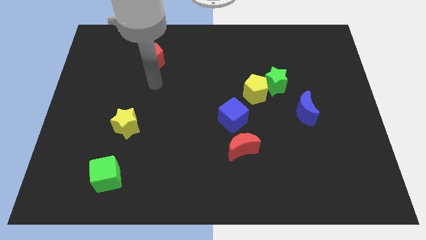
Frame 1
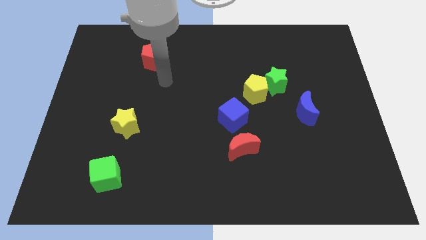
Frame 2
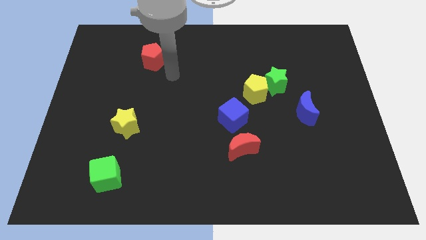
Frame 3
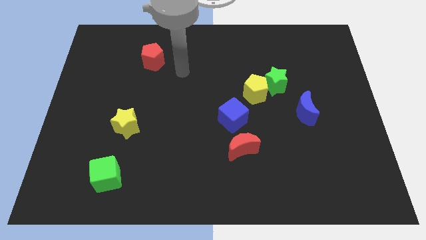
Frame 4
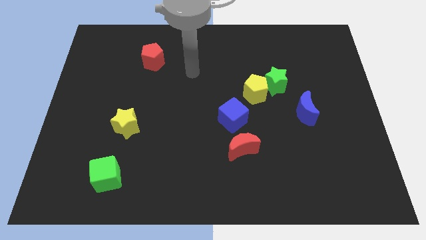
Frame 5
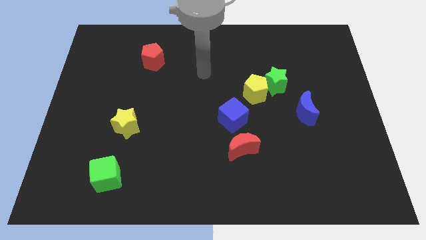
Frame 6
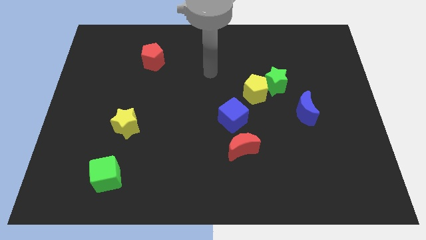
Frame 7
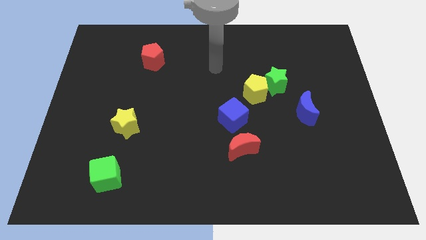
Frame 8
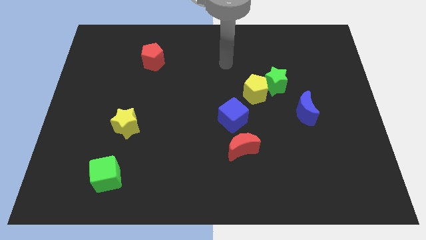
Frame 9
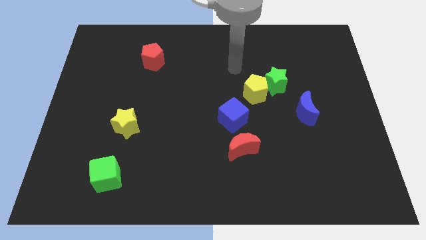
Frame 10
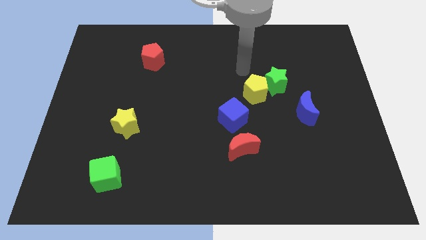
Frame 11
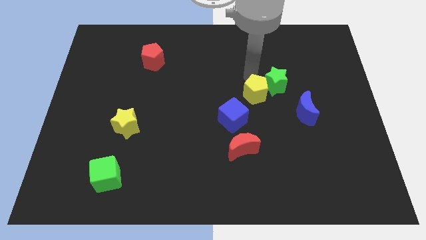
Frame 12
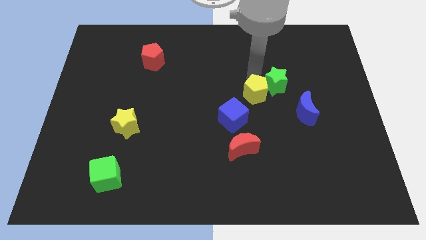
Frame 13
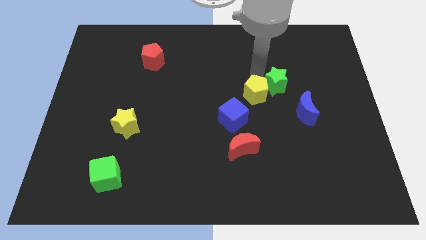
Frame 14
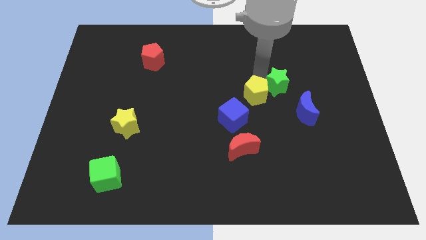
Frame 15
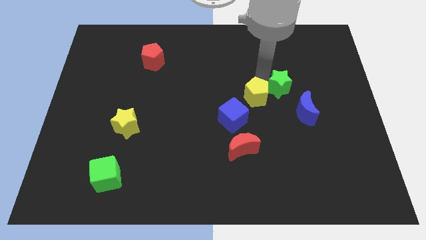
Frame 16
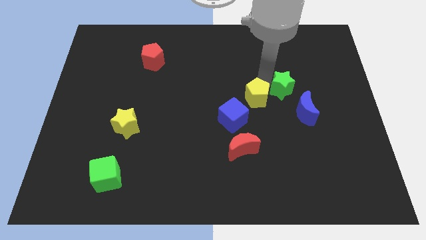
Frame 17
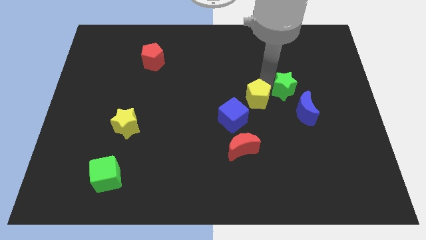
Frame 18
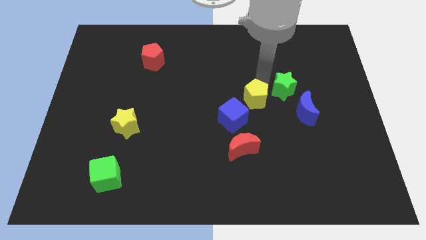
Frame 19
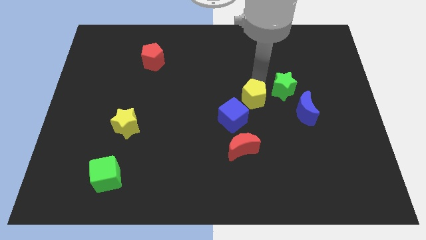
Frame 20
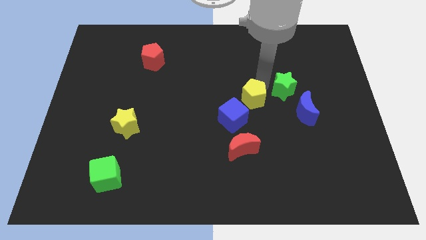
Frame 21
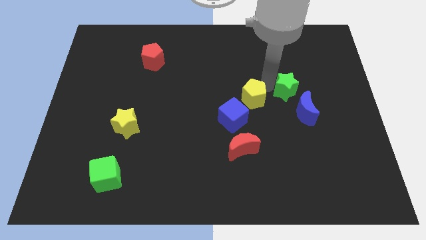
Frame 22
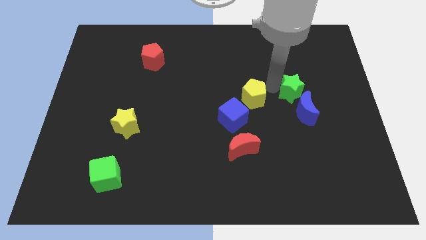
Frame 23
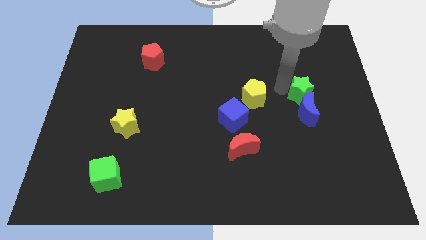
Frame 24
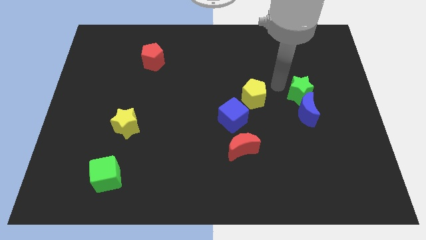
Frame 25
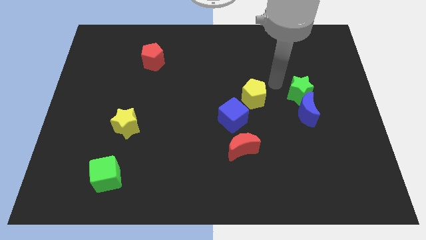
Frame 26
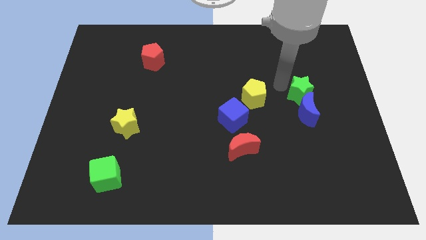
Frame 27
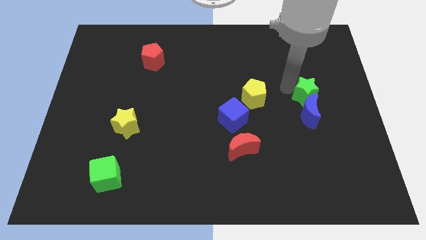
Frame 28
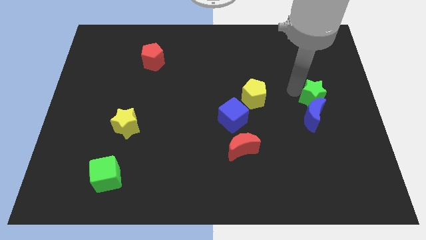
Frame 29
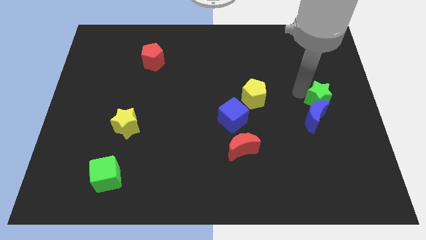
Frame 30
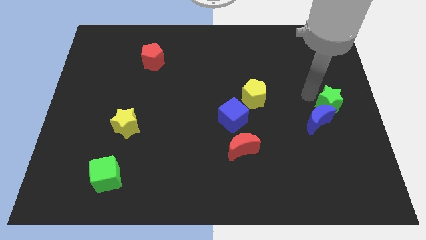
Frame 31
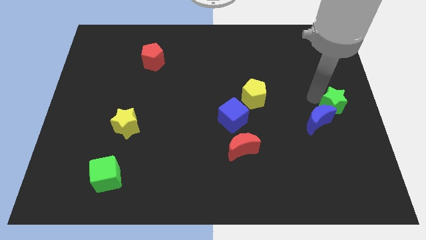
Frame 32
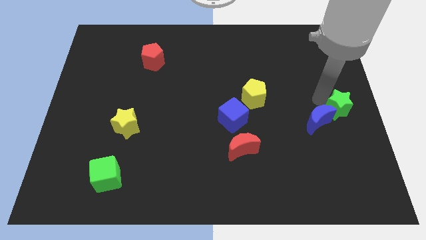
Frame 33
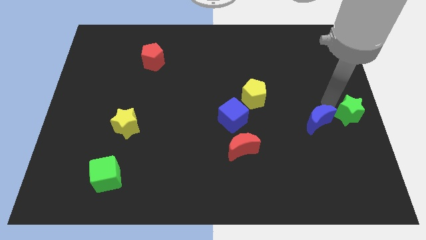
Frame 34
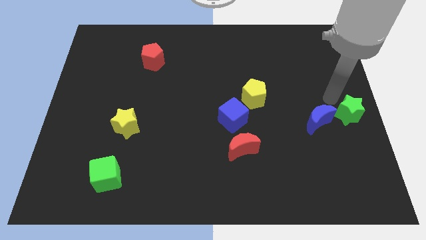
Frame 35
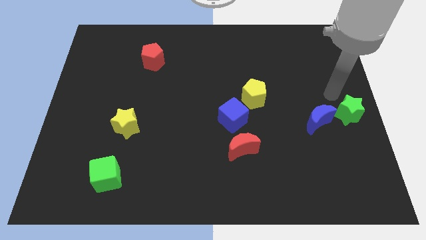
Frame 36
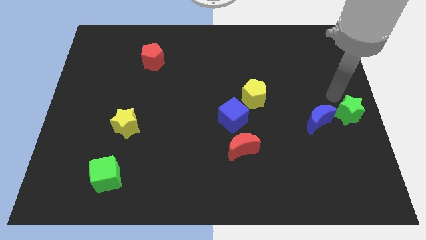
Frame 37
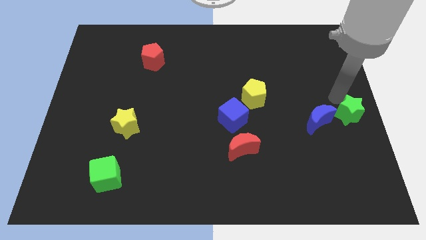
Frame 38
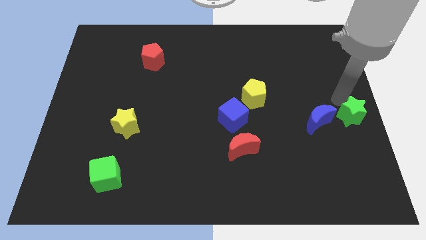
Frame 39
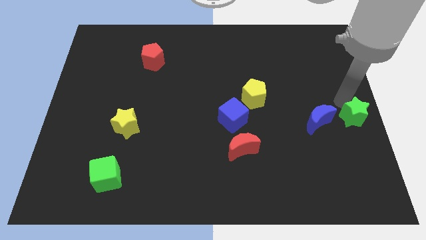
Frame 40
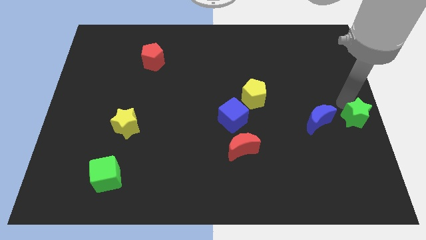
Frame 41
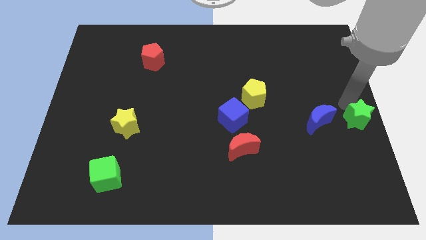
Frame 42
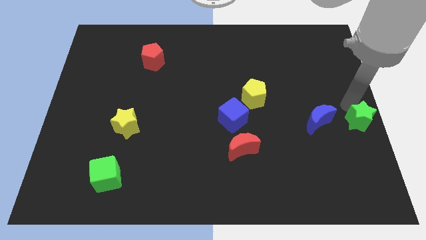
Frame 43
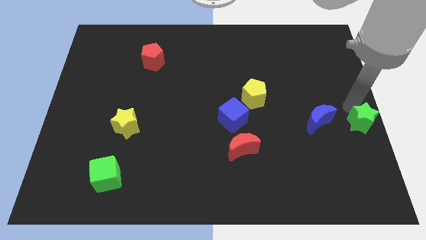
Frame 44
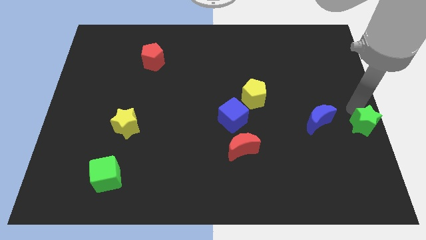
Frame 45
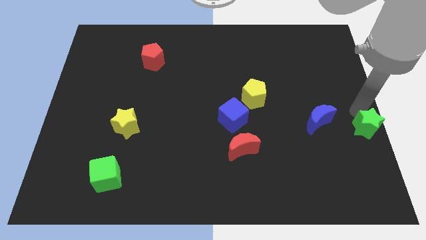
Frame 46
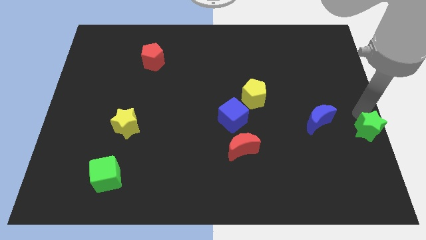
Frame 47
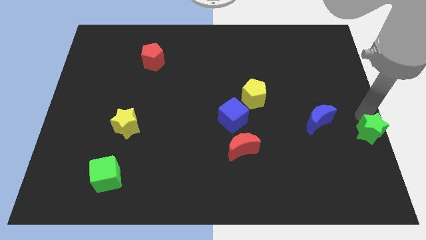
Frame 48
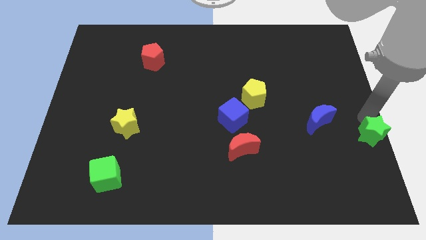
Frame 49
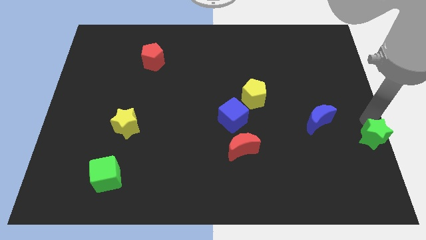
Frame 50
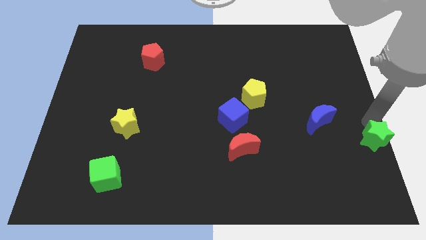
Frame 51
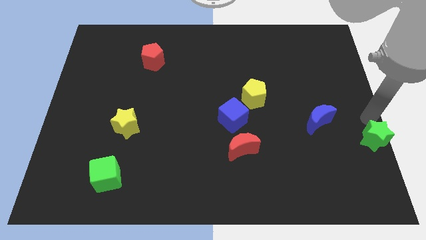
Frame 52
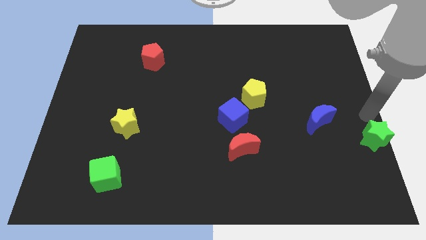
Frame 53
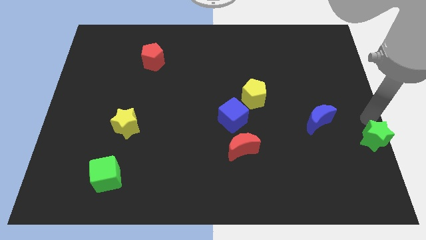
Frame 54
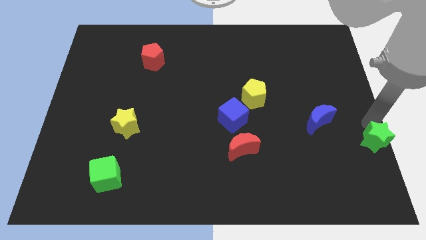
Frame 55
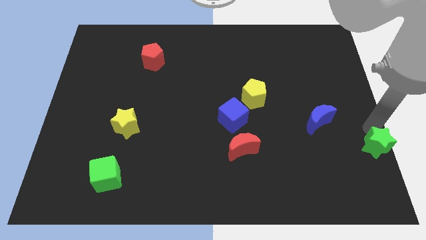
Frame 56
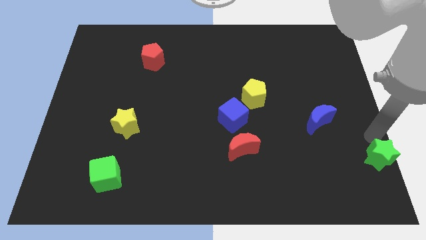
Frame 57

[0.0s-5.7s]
push the green star to the bottom right corner

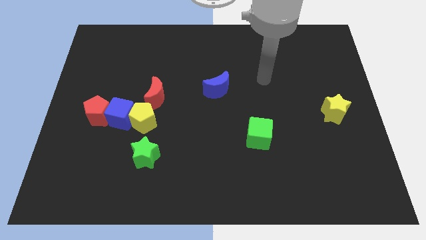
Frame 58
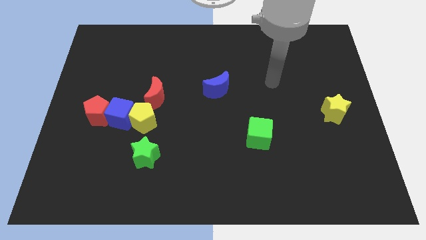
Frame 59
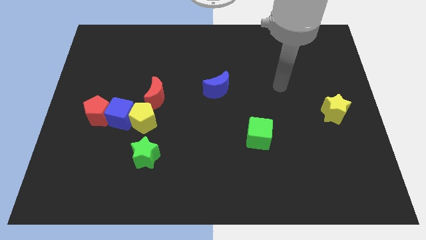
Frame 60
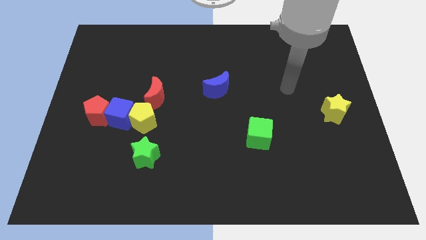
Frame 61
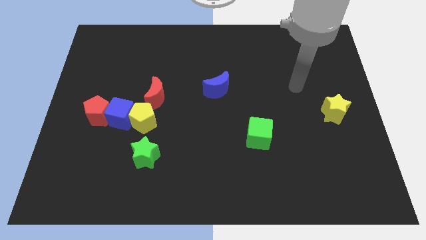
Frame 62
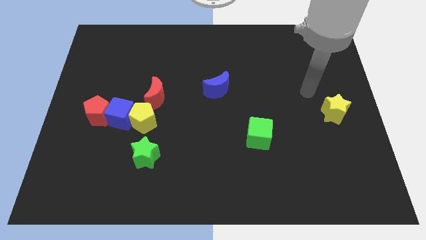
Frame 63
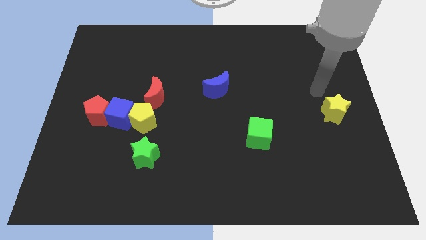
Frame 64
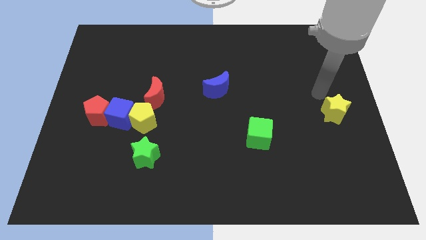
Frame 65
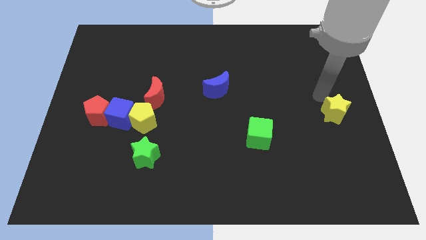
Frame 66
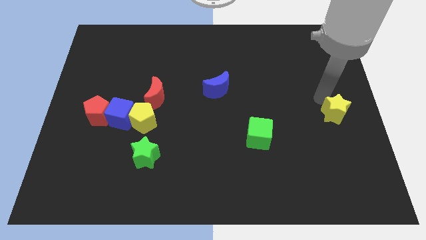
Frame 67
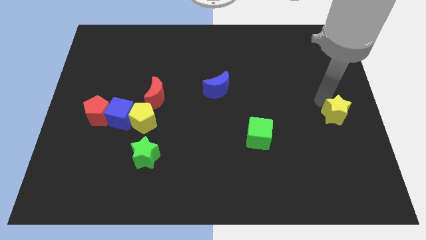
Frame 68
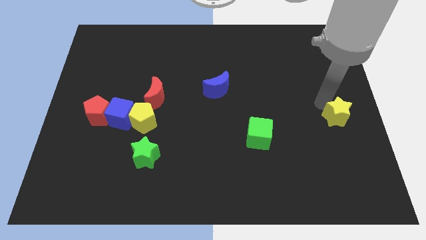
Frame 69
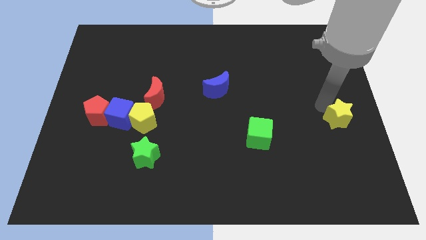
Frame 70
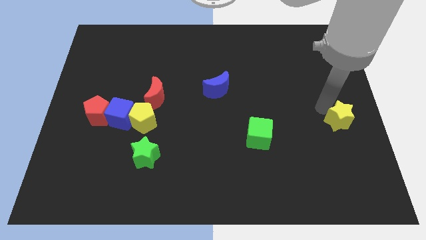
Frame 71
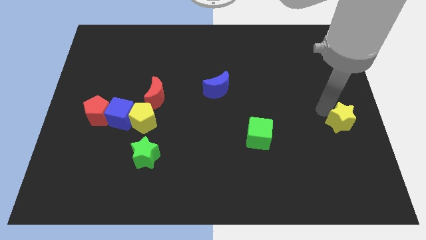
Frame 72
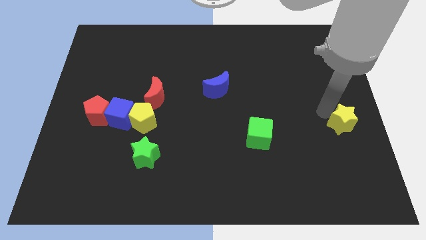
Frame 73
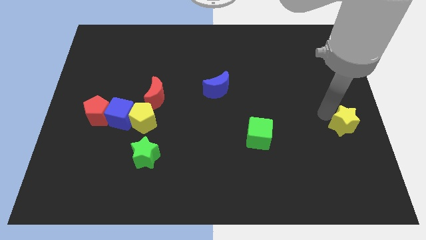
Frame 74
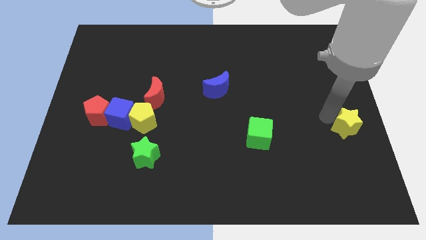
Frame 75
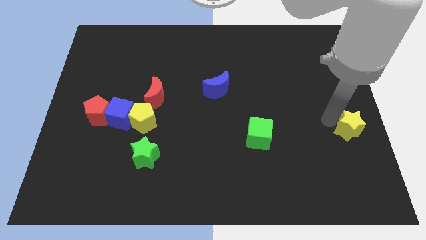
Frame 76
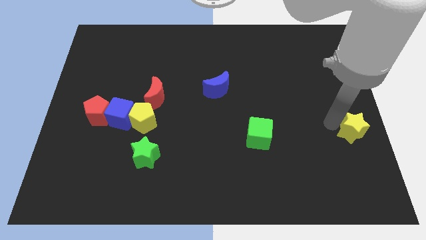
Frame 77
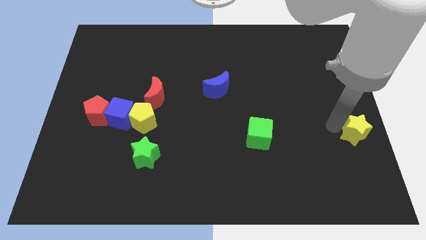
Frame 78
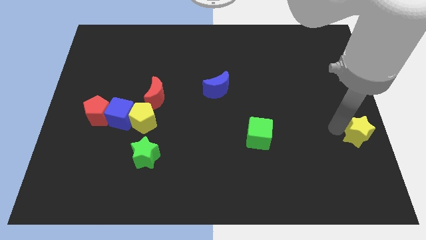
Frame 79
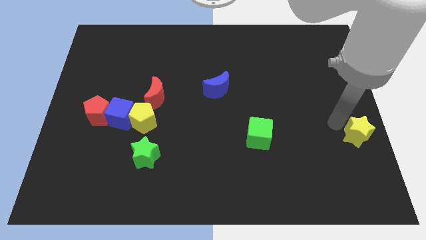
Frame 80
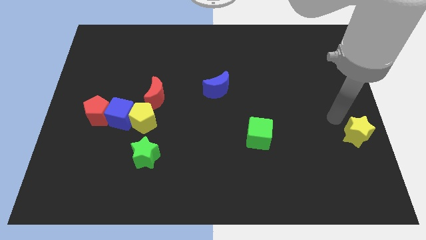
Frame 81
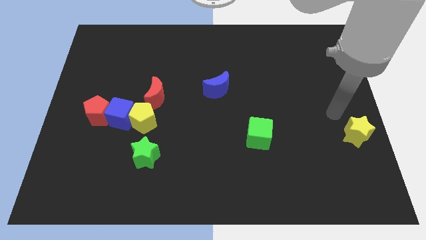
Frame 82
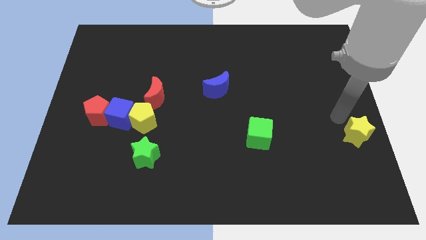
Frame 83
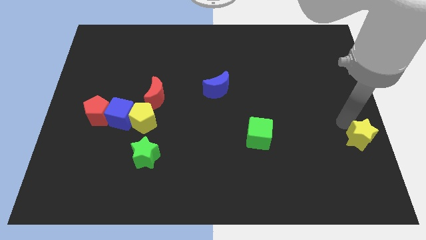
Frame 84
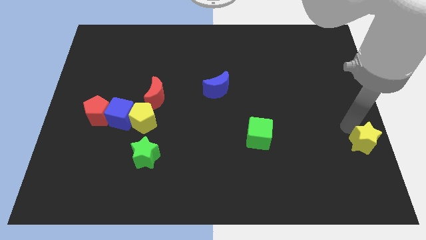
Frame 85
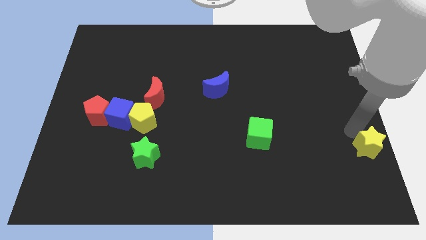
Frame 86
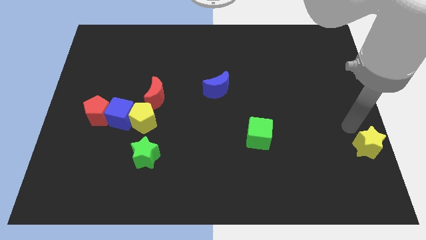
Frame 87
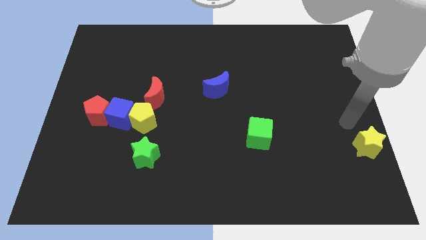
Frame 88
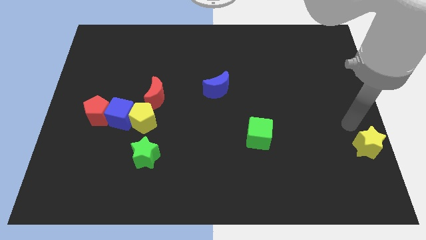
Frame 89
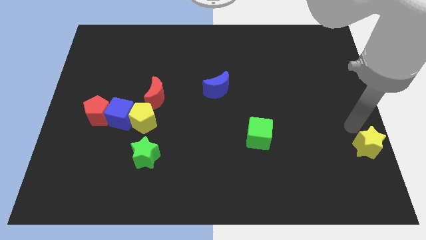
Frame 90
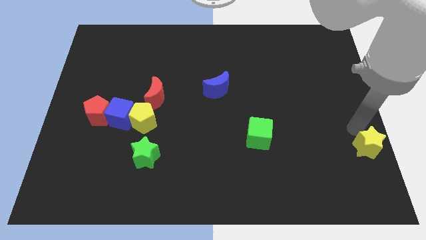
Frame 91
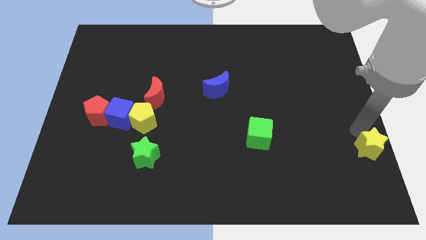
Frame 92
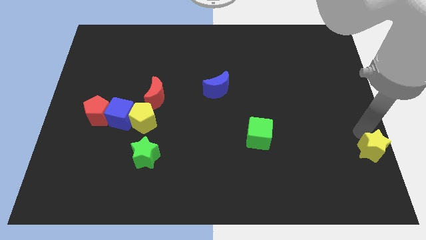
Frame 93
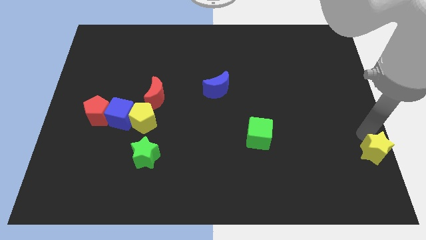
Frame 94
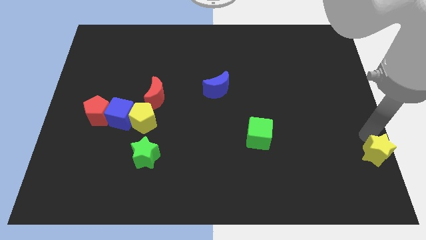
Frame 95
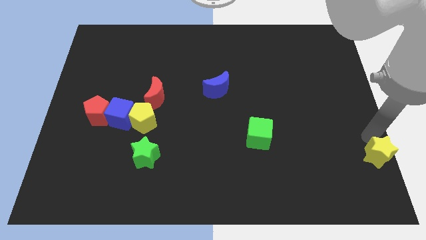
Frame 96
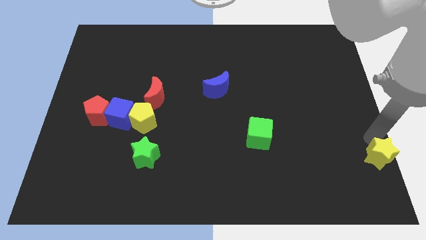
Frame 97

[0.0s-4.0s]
put the yellow star to the bottom right
